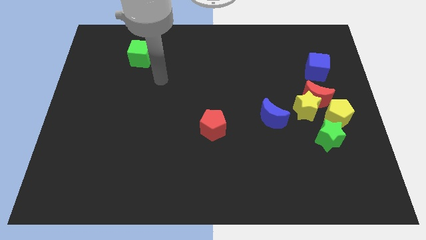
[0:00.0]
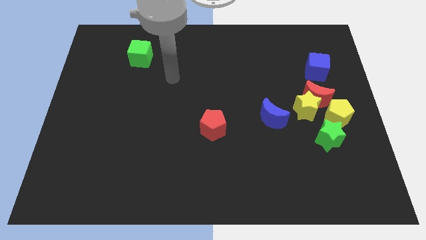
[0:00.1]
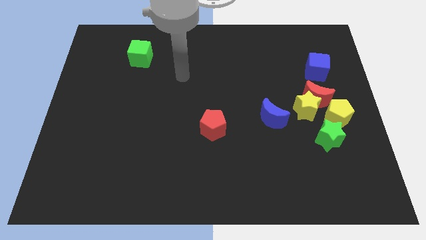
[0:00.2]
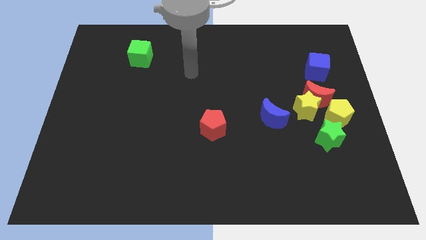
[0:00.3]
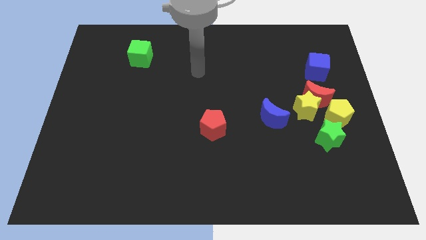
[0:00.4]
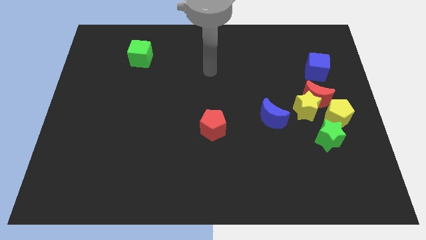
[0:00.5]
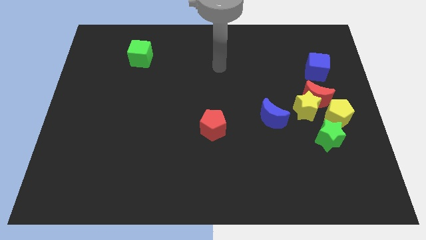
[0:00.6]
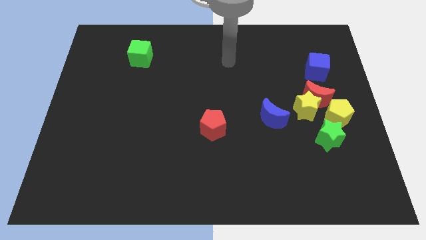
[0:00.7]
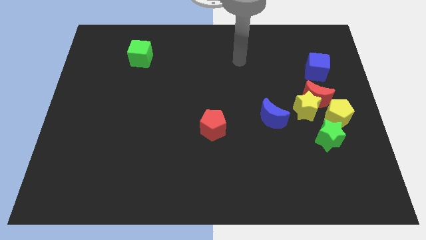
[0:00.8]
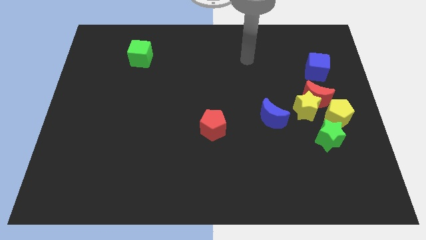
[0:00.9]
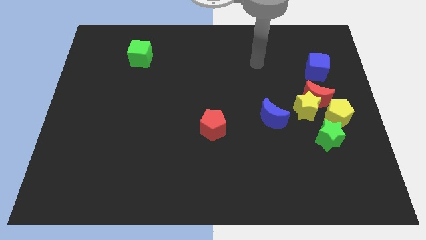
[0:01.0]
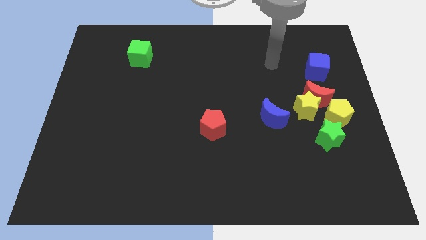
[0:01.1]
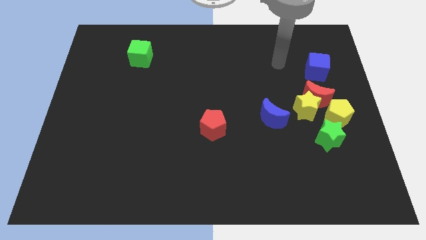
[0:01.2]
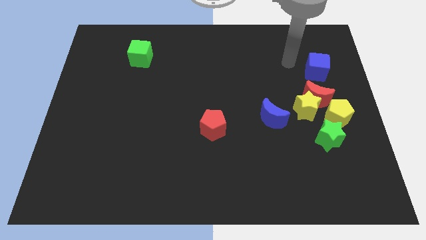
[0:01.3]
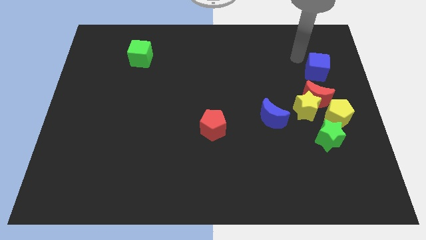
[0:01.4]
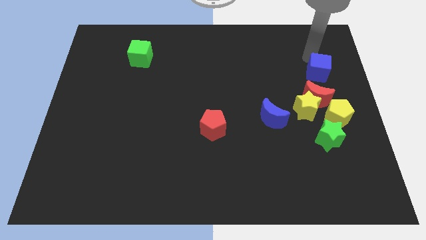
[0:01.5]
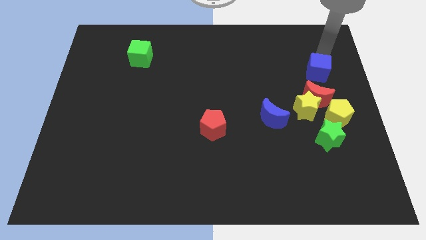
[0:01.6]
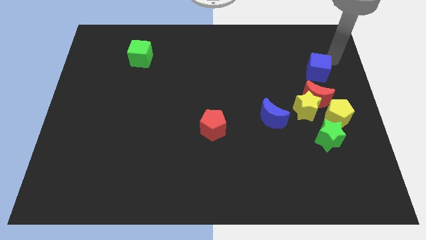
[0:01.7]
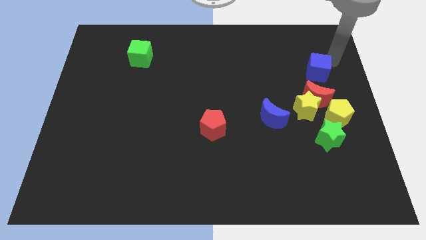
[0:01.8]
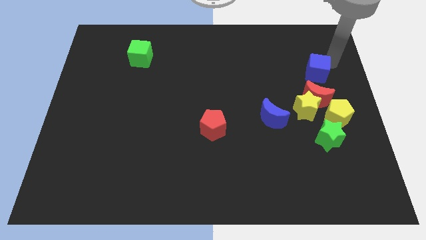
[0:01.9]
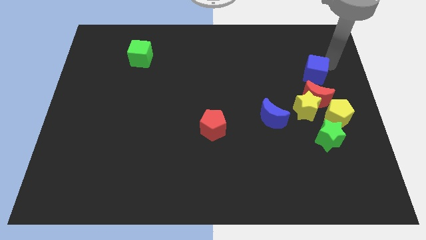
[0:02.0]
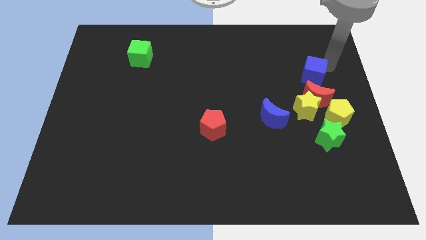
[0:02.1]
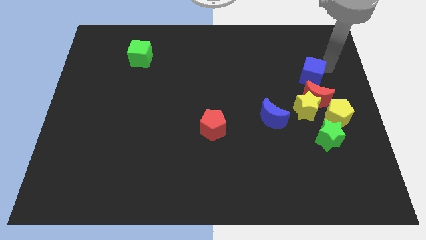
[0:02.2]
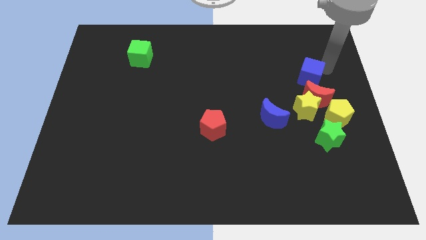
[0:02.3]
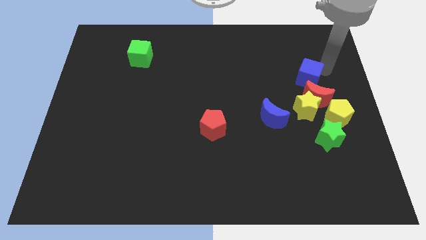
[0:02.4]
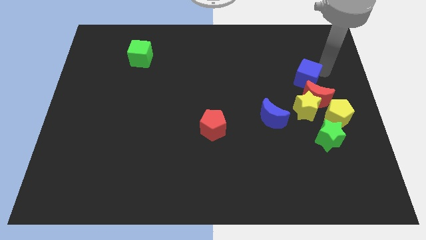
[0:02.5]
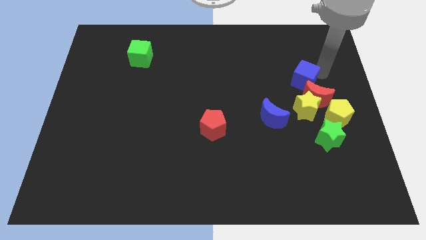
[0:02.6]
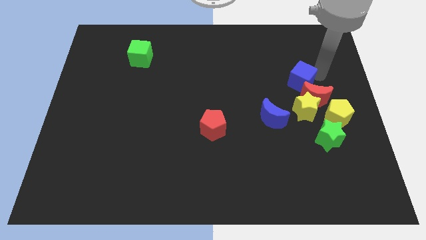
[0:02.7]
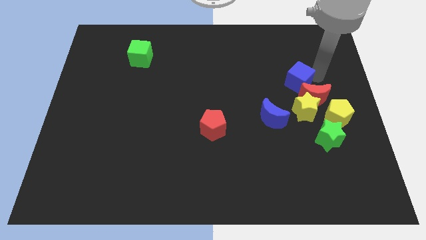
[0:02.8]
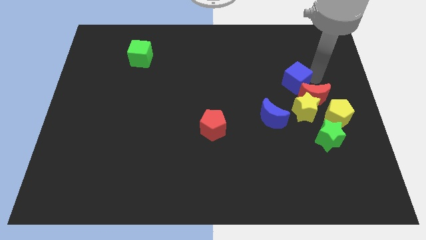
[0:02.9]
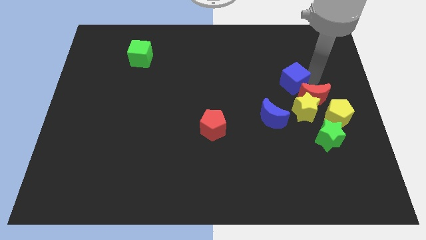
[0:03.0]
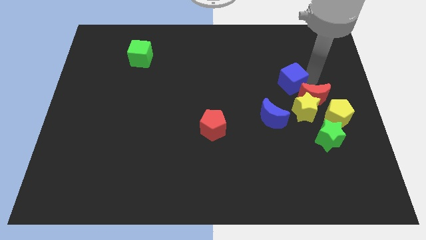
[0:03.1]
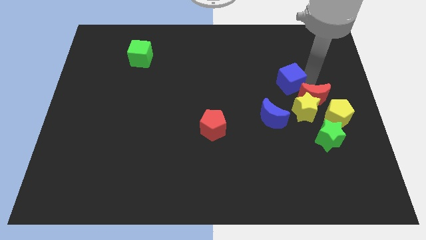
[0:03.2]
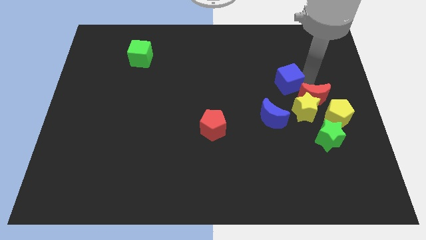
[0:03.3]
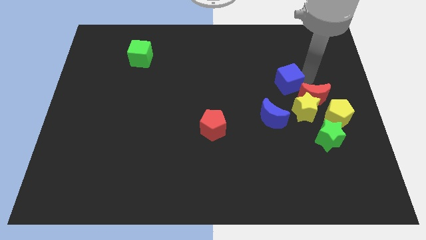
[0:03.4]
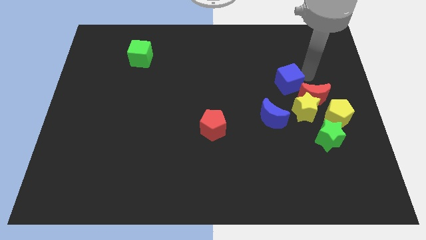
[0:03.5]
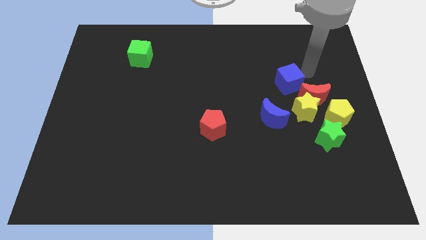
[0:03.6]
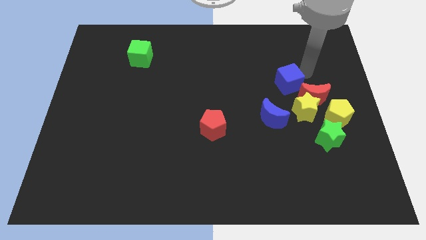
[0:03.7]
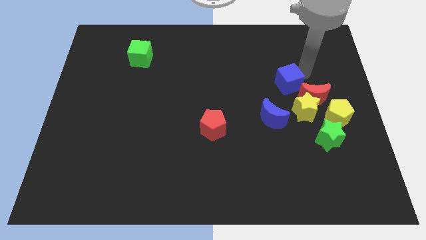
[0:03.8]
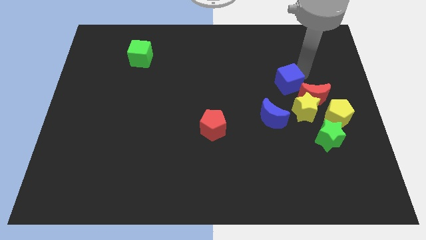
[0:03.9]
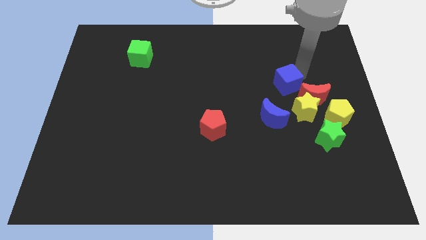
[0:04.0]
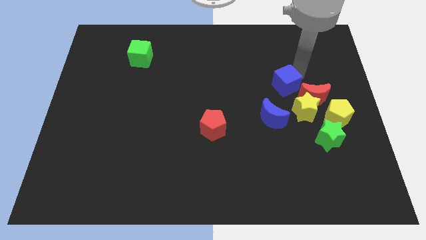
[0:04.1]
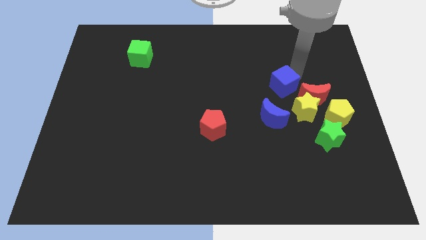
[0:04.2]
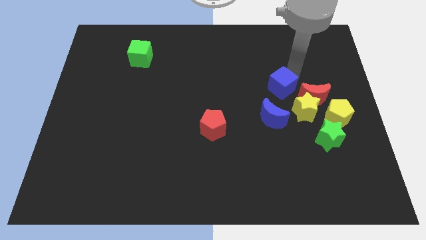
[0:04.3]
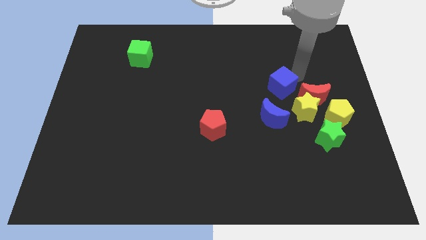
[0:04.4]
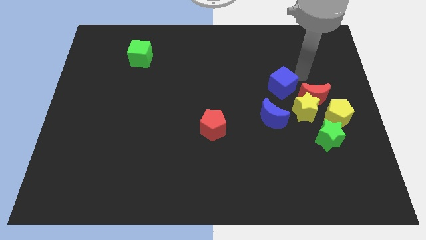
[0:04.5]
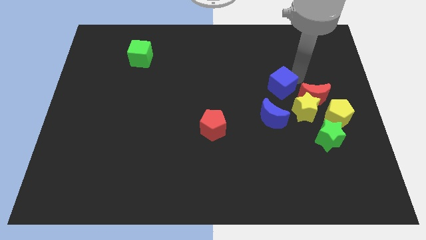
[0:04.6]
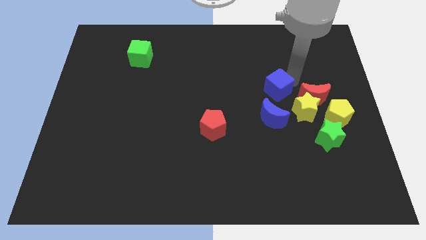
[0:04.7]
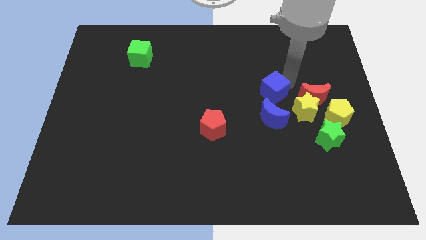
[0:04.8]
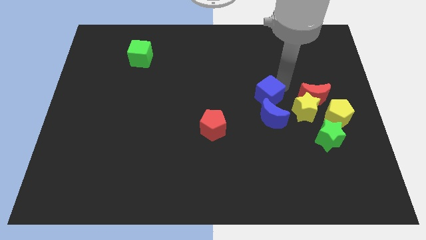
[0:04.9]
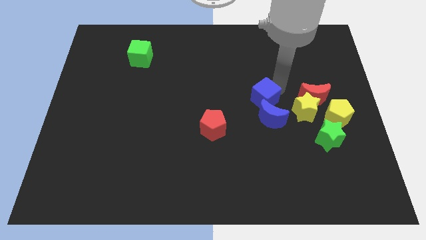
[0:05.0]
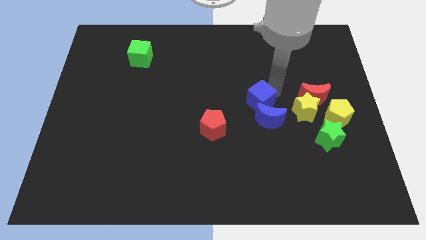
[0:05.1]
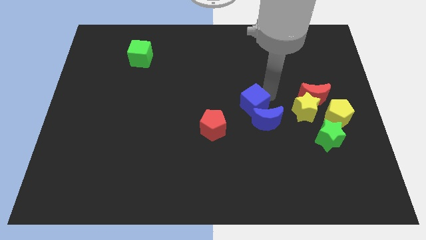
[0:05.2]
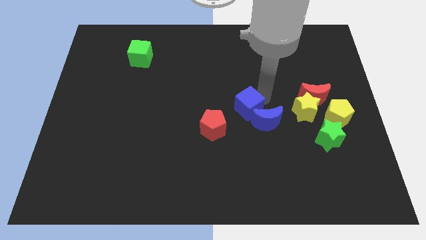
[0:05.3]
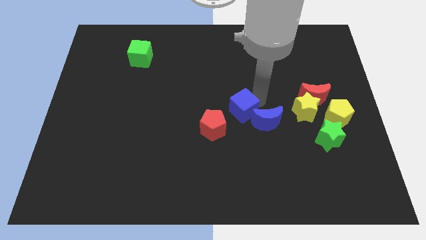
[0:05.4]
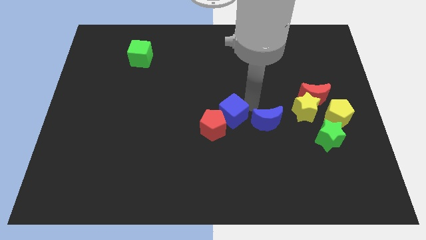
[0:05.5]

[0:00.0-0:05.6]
slide the blue cube to the red pentagon

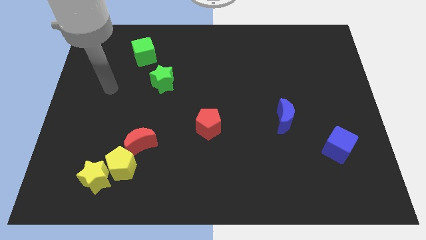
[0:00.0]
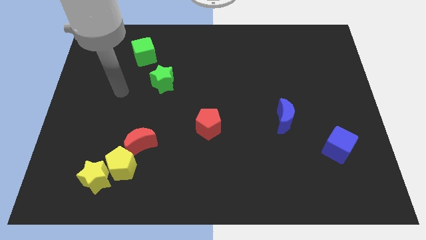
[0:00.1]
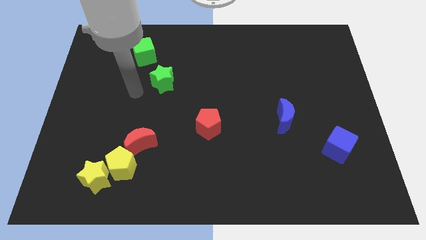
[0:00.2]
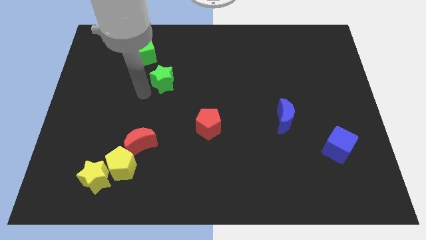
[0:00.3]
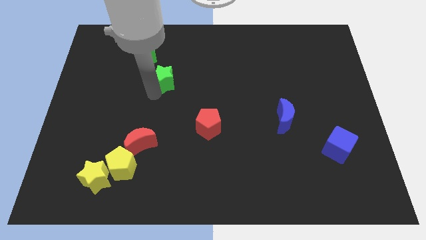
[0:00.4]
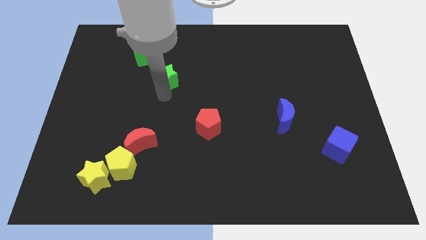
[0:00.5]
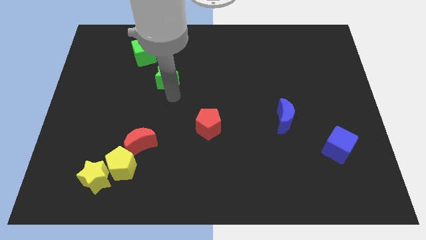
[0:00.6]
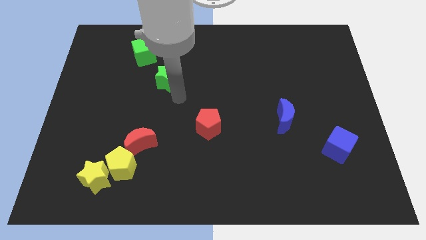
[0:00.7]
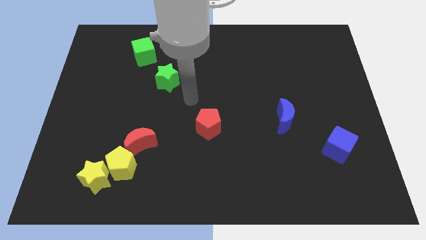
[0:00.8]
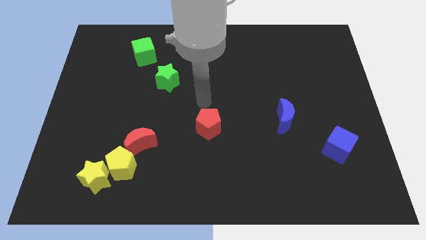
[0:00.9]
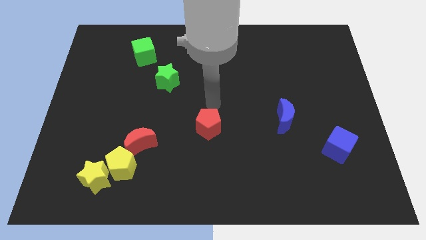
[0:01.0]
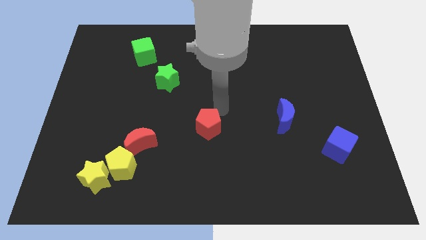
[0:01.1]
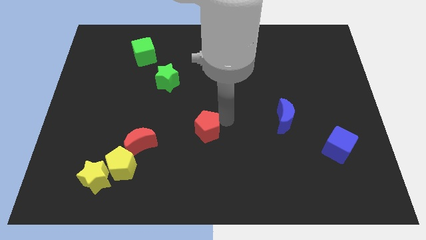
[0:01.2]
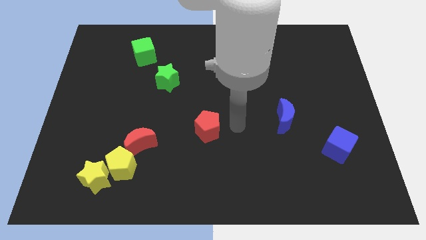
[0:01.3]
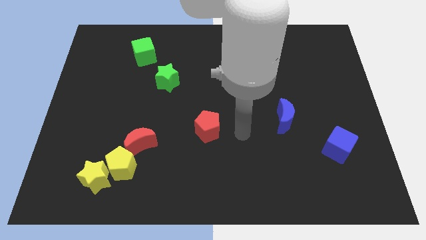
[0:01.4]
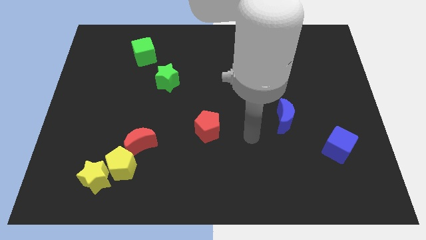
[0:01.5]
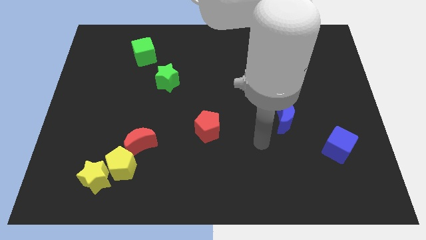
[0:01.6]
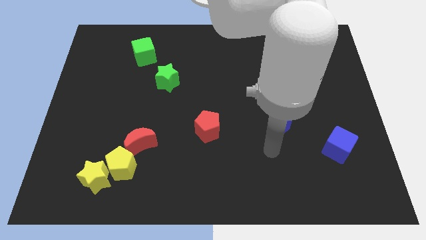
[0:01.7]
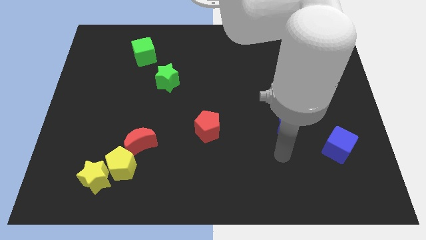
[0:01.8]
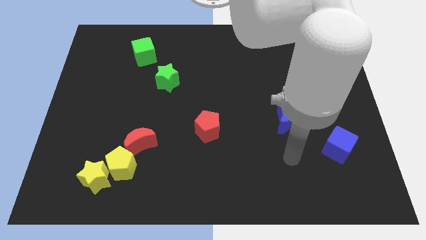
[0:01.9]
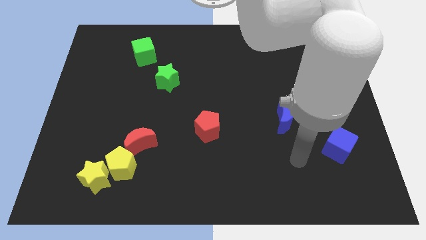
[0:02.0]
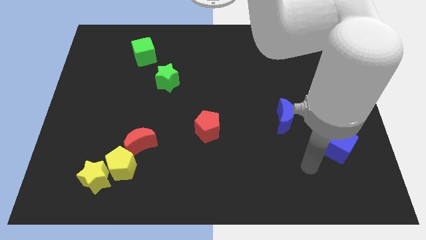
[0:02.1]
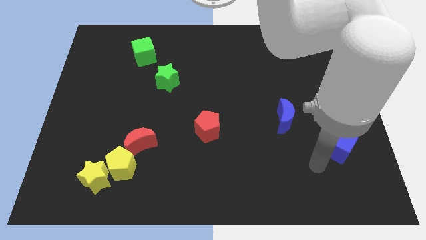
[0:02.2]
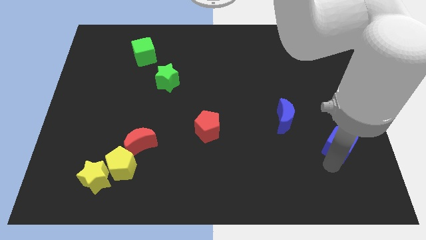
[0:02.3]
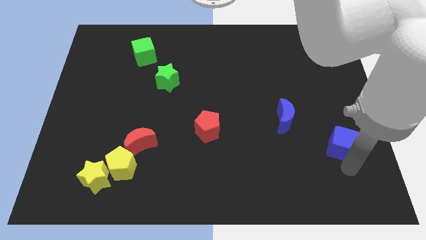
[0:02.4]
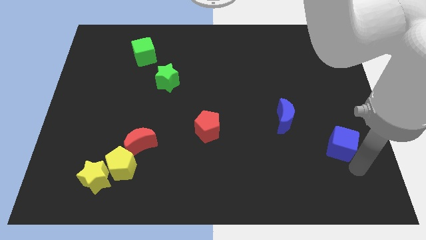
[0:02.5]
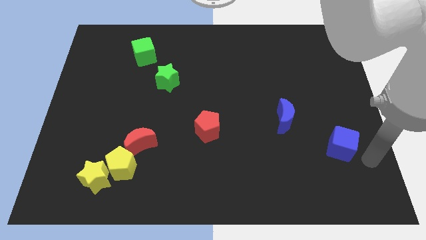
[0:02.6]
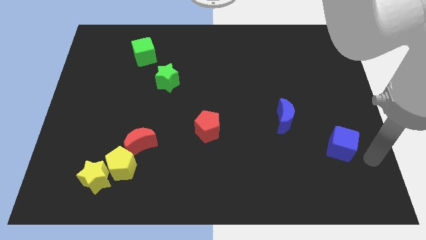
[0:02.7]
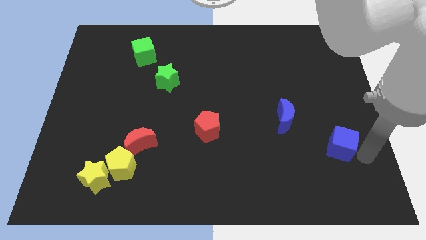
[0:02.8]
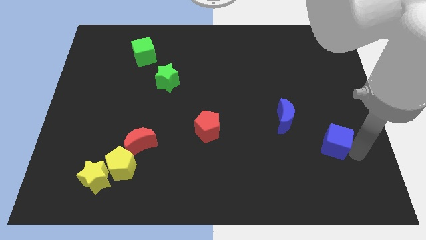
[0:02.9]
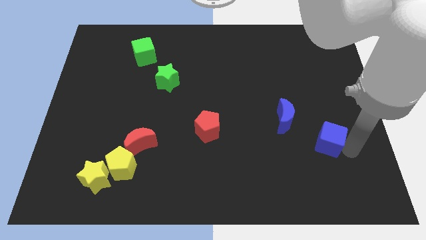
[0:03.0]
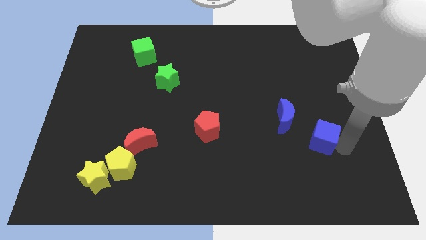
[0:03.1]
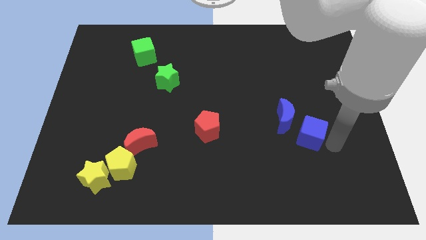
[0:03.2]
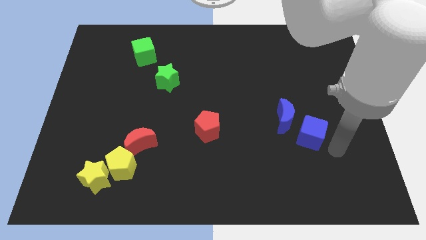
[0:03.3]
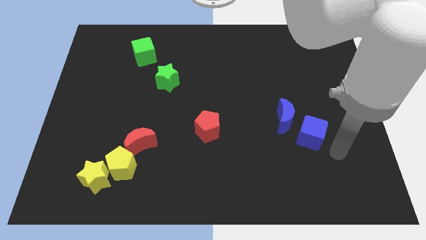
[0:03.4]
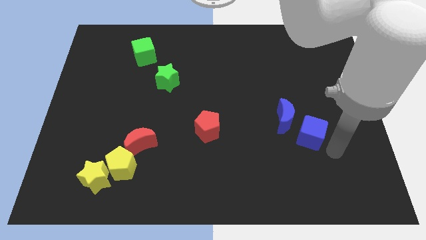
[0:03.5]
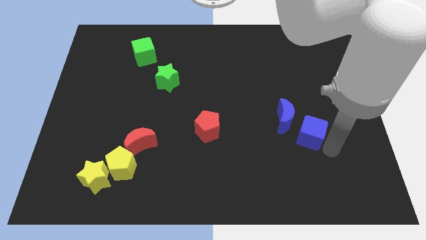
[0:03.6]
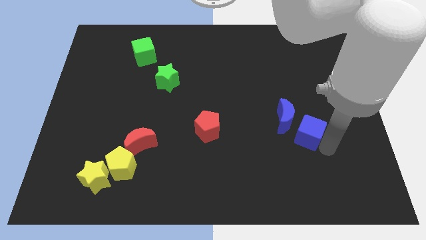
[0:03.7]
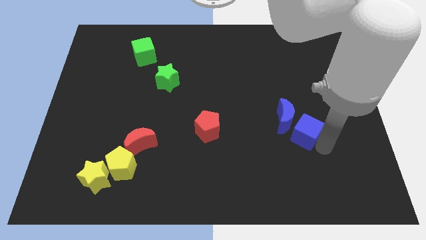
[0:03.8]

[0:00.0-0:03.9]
put the blue cube to the blue moon
